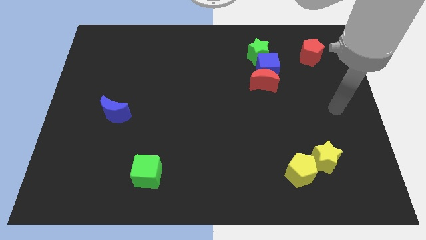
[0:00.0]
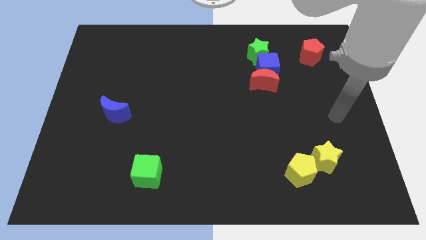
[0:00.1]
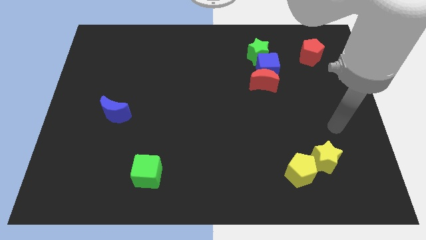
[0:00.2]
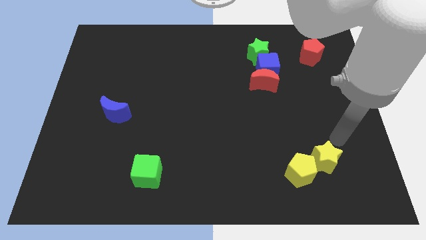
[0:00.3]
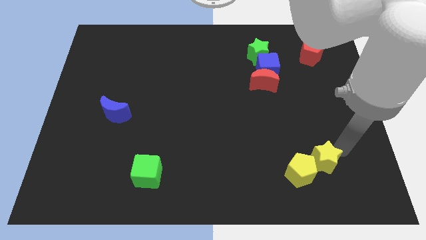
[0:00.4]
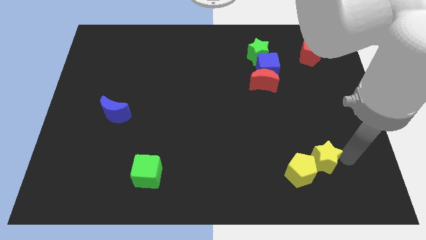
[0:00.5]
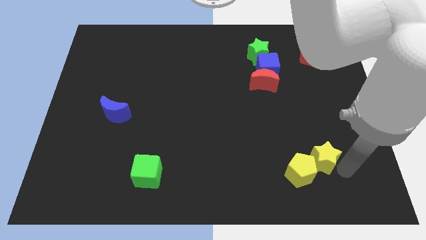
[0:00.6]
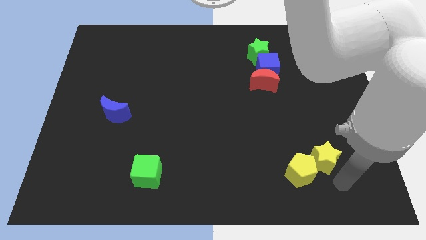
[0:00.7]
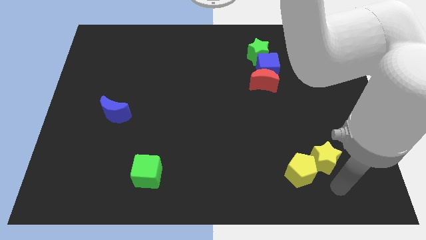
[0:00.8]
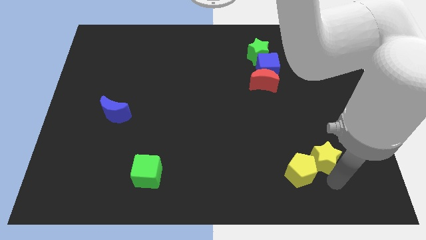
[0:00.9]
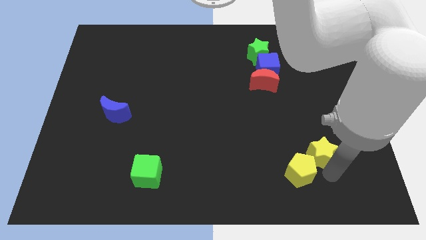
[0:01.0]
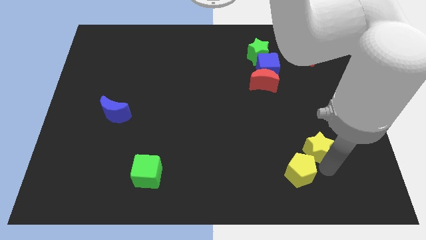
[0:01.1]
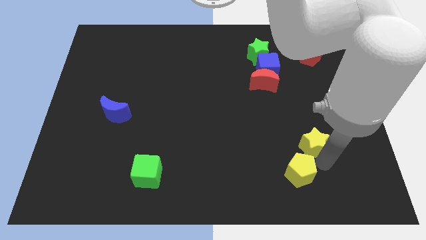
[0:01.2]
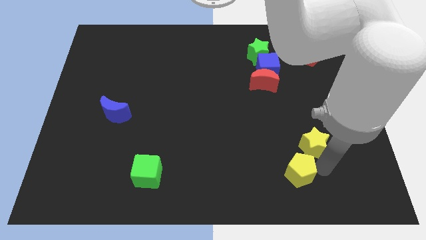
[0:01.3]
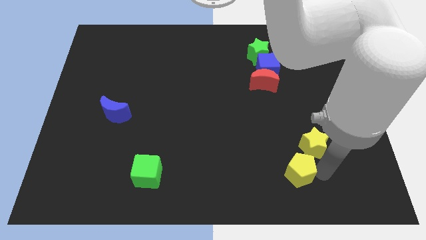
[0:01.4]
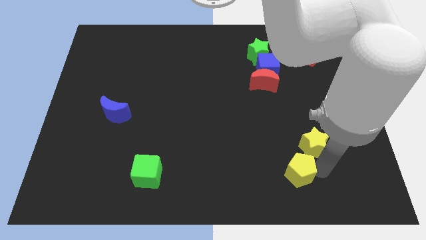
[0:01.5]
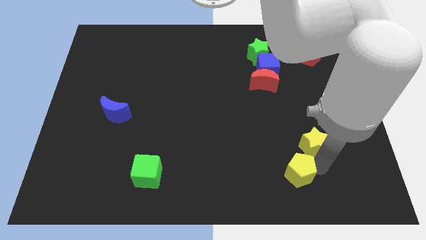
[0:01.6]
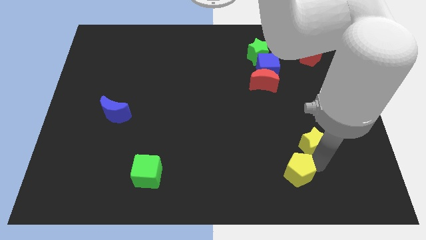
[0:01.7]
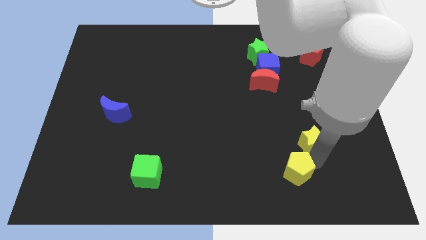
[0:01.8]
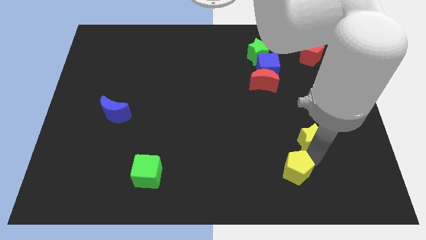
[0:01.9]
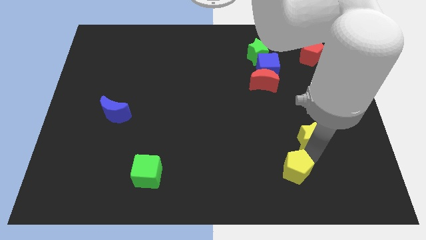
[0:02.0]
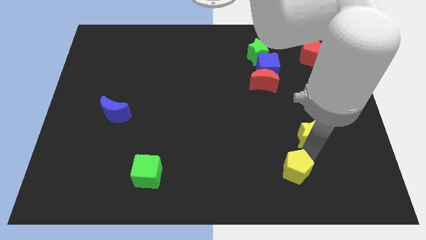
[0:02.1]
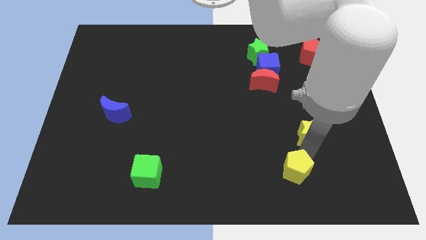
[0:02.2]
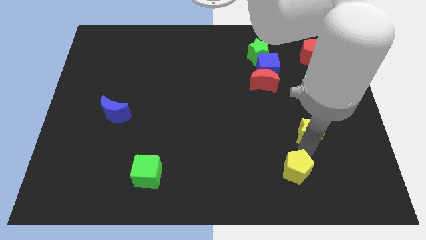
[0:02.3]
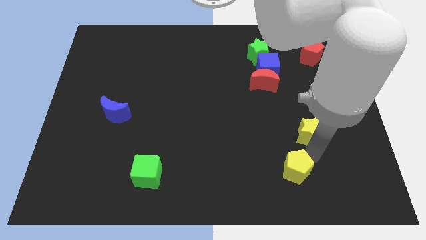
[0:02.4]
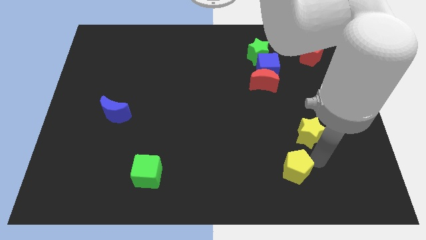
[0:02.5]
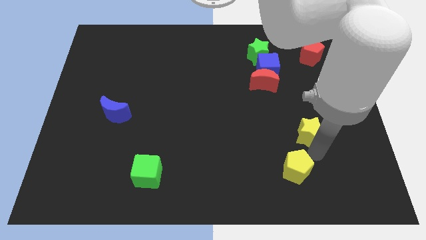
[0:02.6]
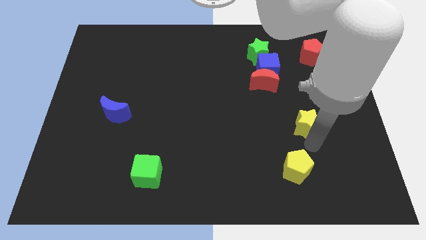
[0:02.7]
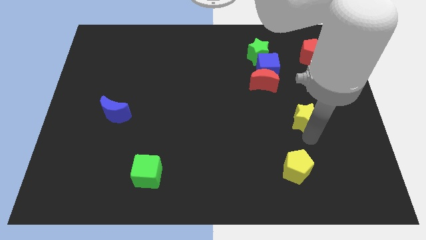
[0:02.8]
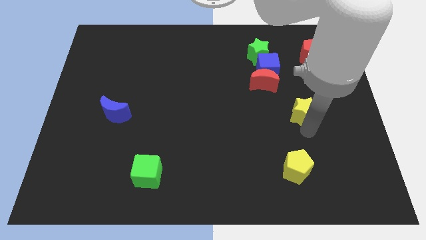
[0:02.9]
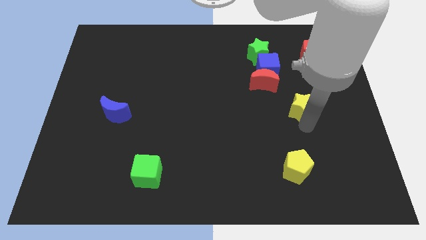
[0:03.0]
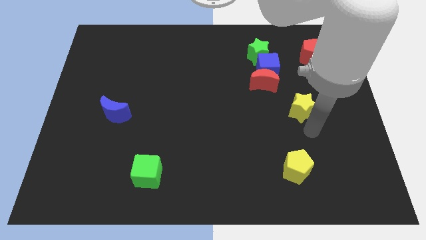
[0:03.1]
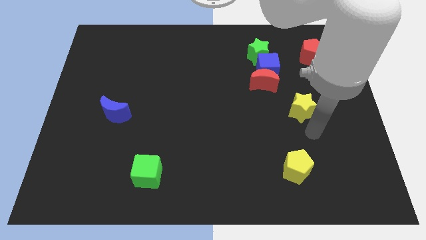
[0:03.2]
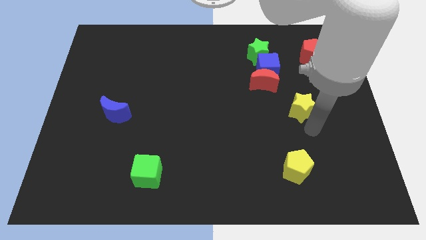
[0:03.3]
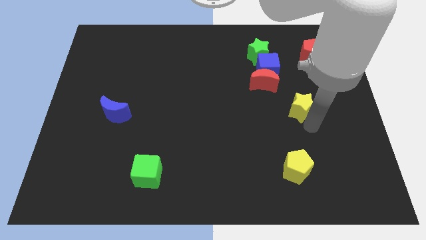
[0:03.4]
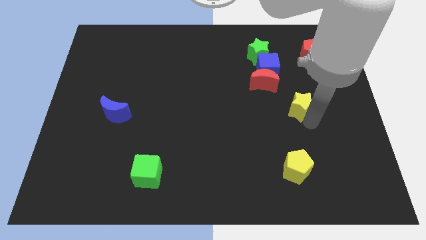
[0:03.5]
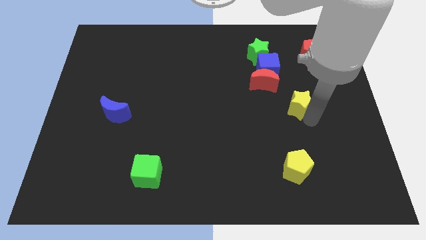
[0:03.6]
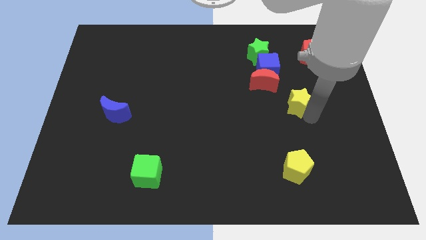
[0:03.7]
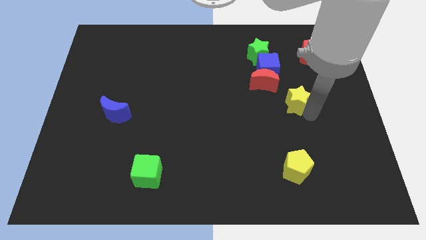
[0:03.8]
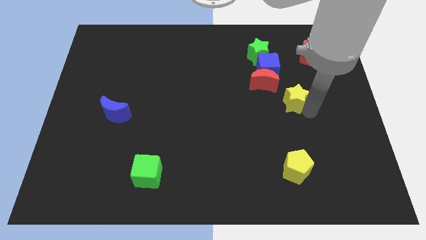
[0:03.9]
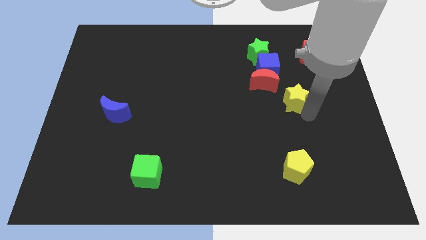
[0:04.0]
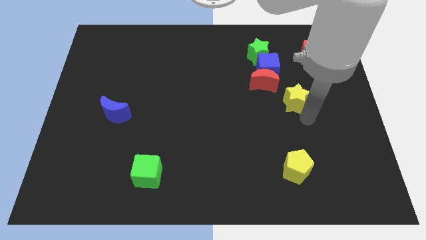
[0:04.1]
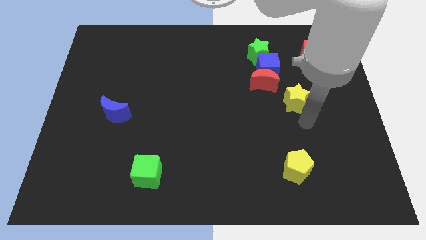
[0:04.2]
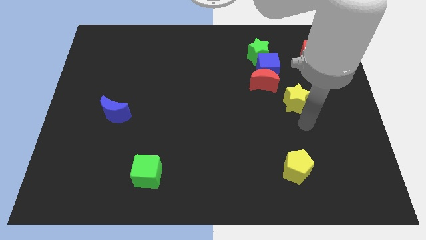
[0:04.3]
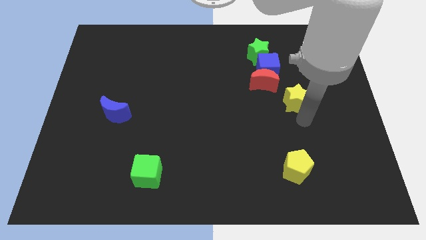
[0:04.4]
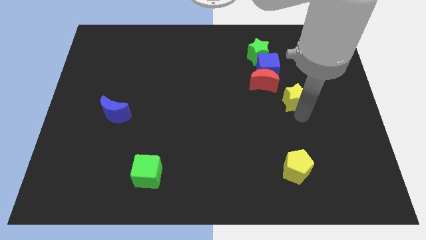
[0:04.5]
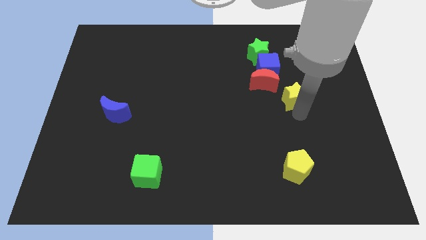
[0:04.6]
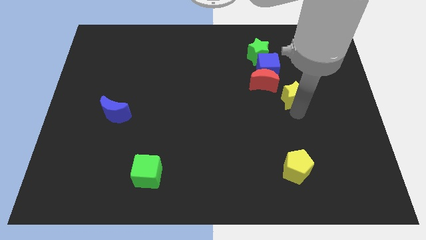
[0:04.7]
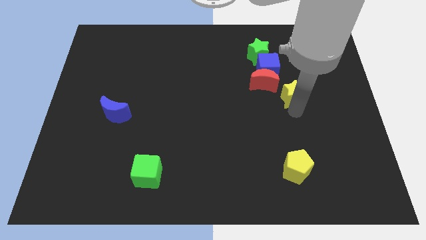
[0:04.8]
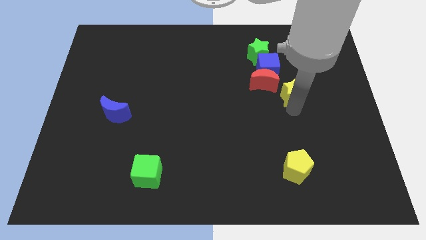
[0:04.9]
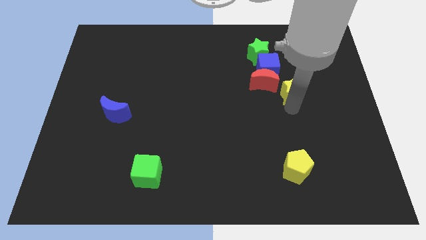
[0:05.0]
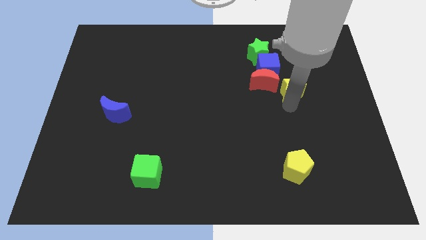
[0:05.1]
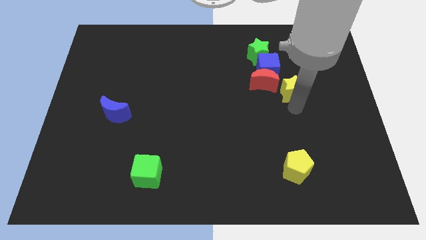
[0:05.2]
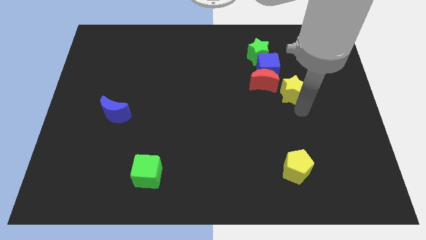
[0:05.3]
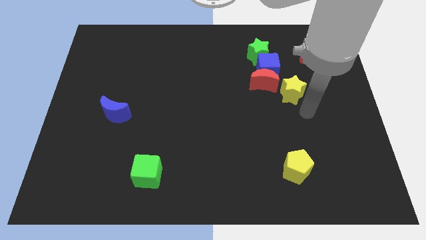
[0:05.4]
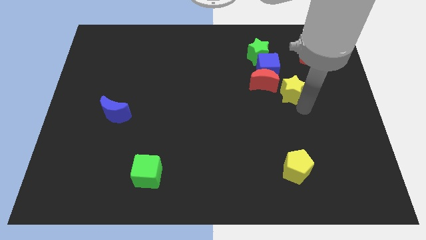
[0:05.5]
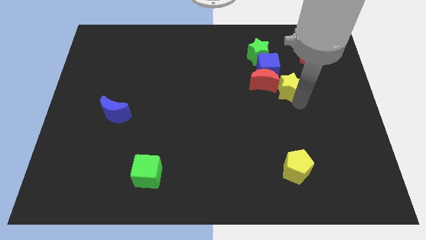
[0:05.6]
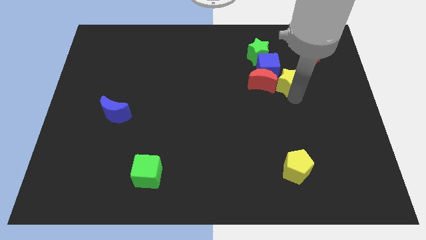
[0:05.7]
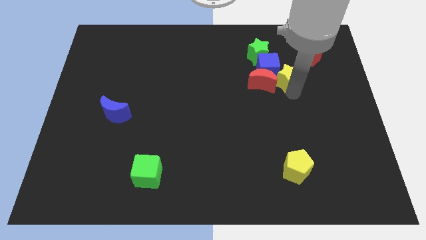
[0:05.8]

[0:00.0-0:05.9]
put the yellow star close to the blue cube

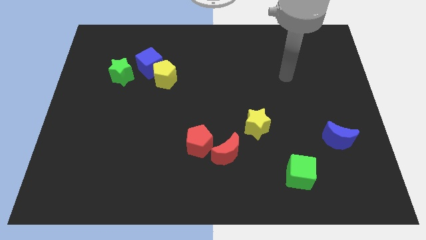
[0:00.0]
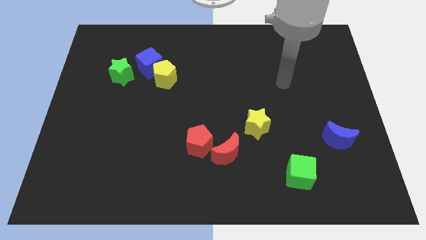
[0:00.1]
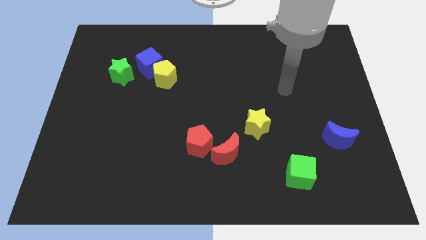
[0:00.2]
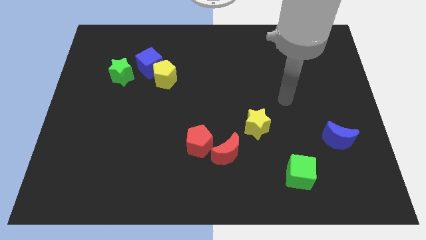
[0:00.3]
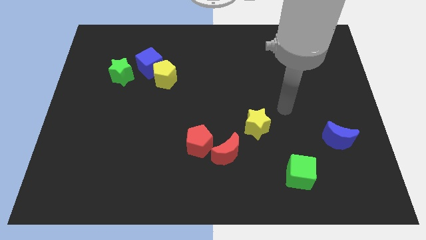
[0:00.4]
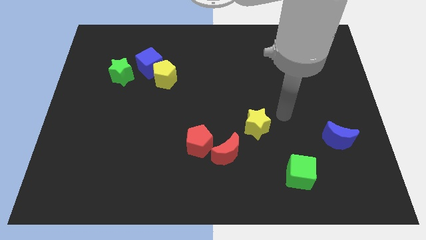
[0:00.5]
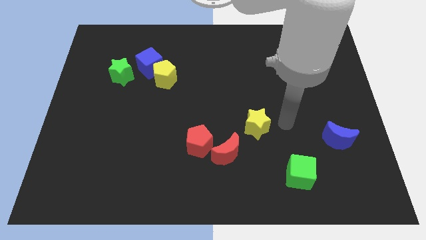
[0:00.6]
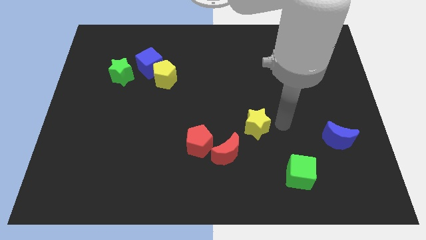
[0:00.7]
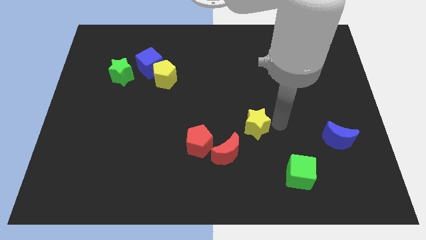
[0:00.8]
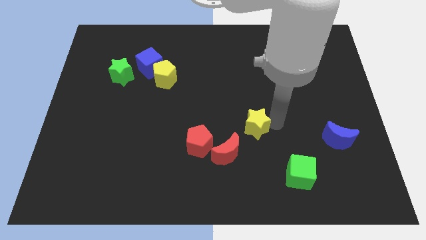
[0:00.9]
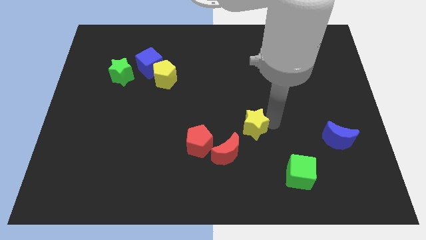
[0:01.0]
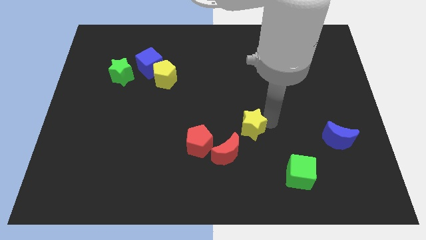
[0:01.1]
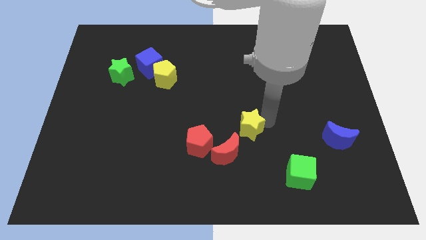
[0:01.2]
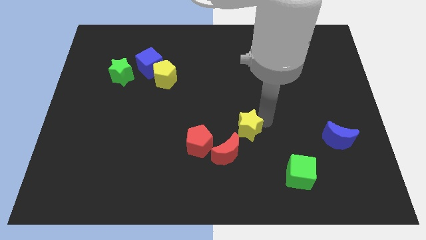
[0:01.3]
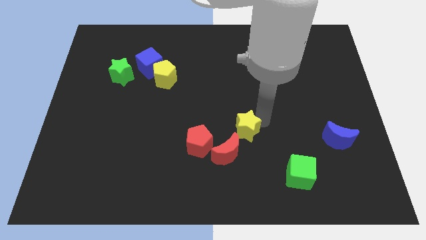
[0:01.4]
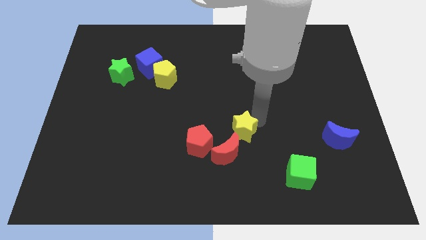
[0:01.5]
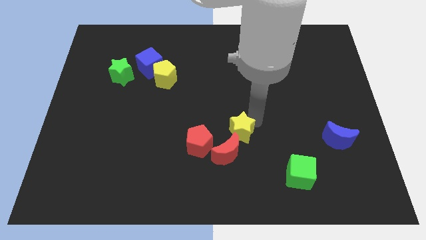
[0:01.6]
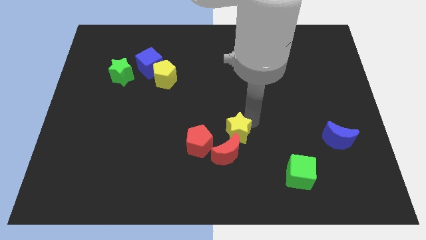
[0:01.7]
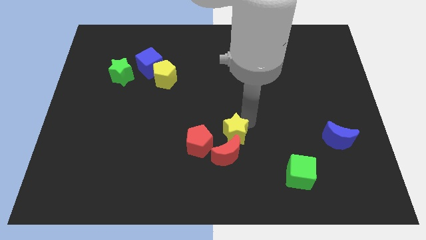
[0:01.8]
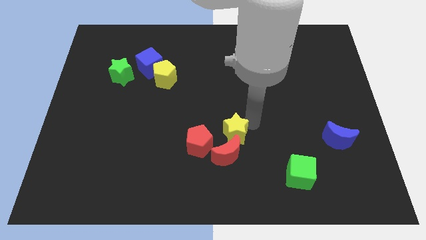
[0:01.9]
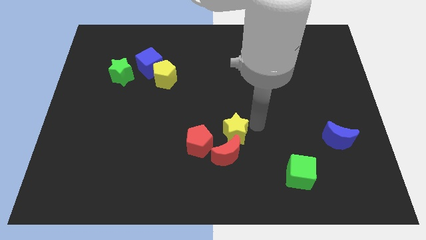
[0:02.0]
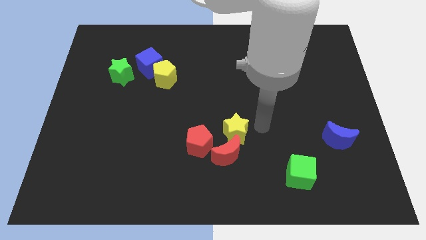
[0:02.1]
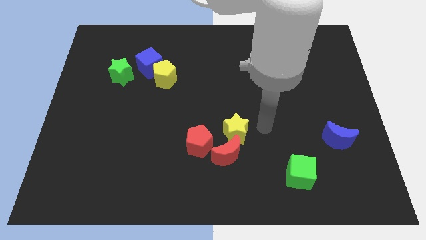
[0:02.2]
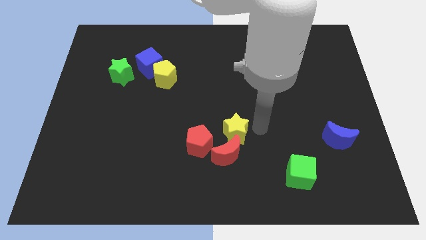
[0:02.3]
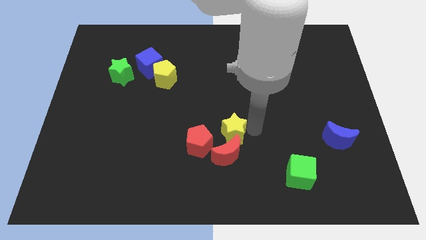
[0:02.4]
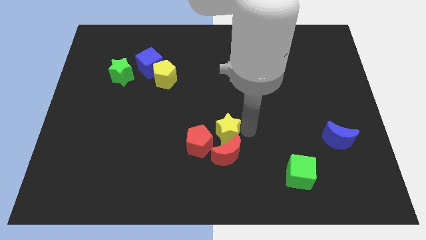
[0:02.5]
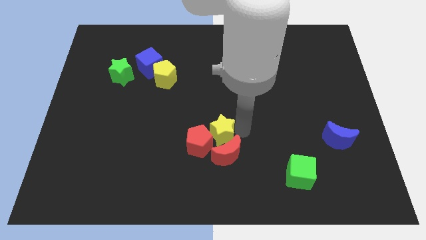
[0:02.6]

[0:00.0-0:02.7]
put the yellow star close to the red pentagon
